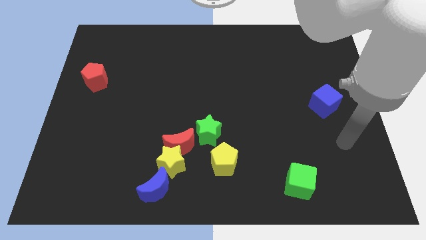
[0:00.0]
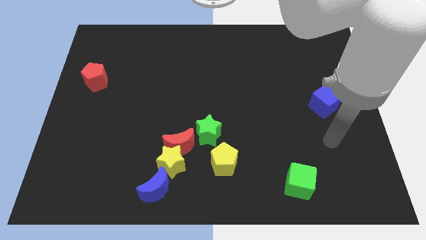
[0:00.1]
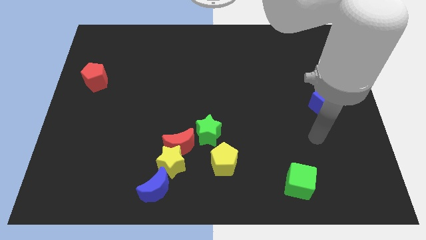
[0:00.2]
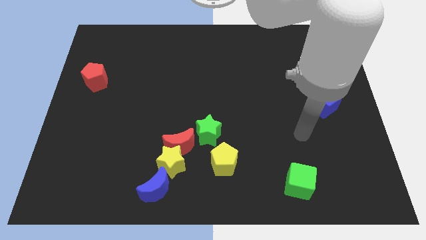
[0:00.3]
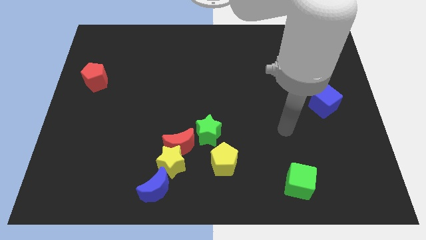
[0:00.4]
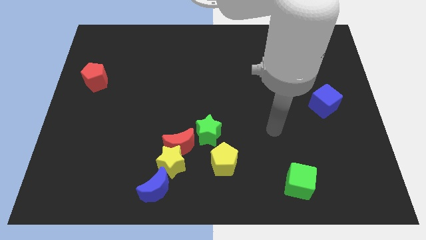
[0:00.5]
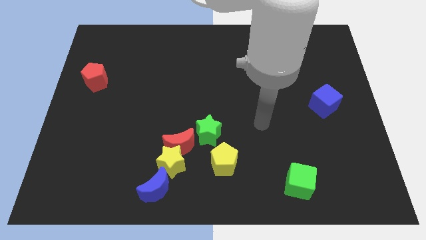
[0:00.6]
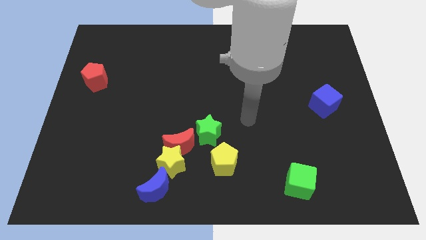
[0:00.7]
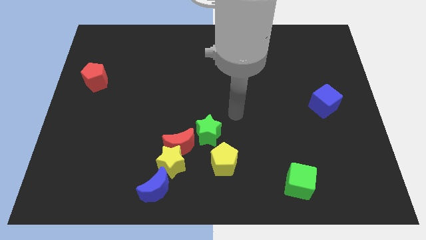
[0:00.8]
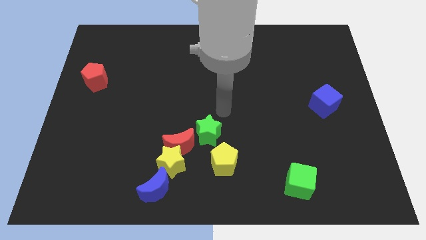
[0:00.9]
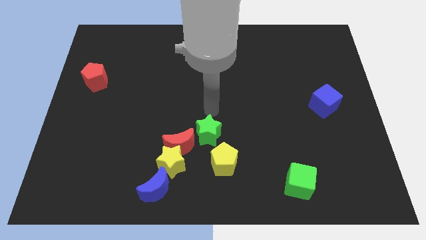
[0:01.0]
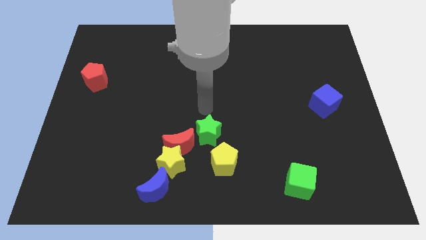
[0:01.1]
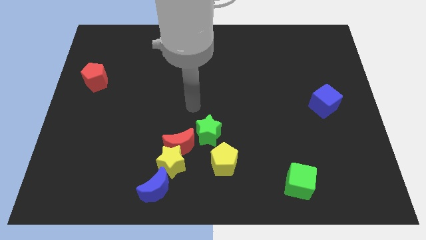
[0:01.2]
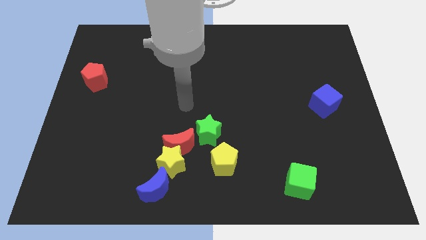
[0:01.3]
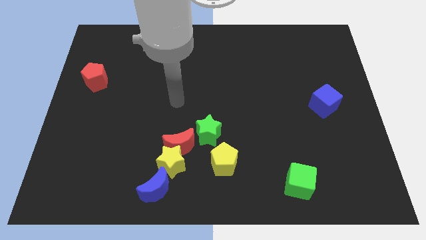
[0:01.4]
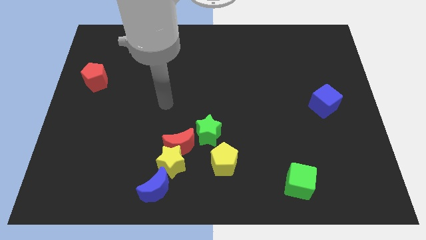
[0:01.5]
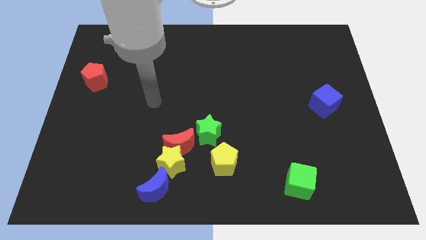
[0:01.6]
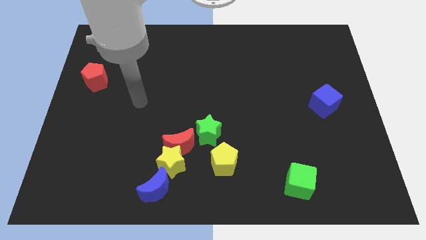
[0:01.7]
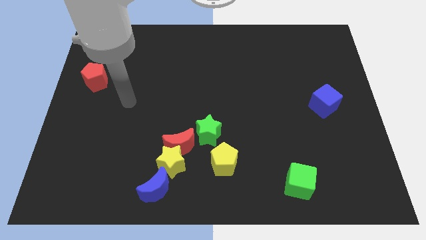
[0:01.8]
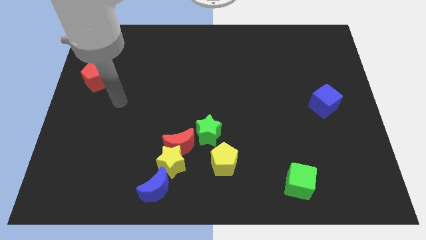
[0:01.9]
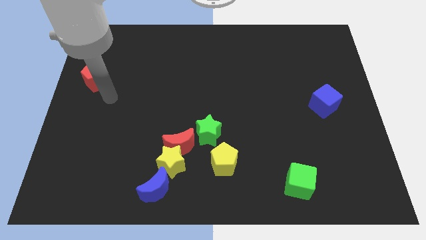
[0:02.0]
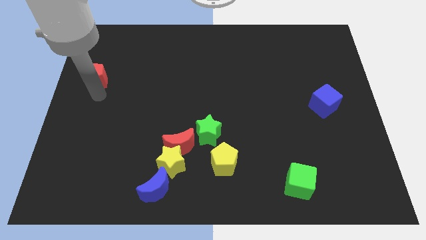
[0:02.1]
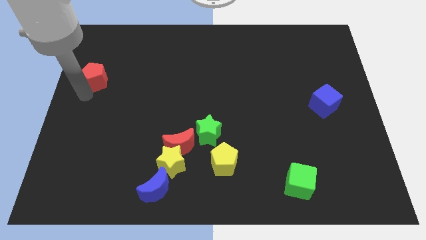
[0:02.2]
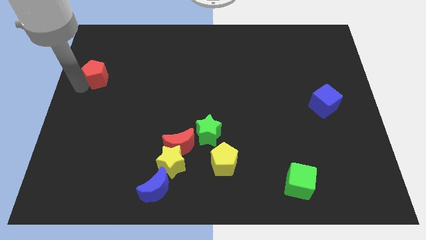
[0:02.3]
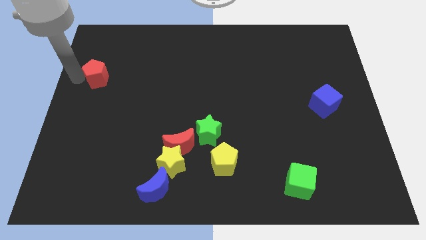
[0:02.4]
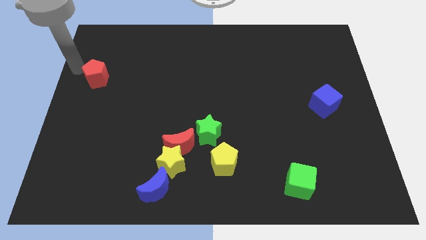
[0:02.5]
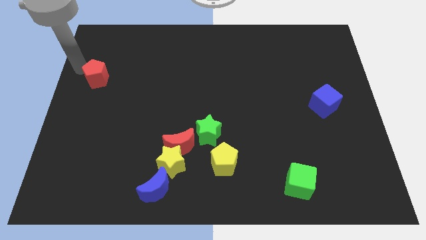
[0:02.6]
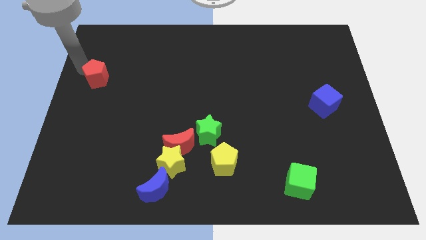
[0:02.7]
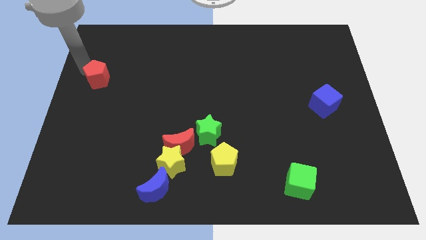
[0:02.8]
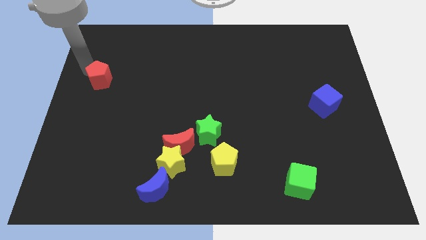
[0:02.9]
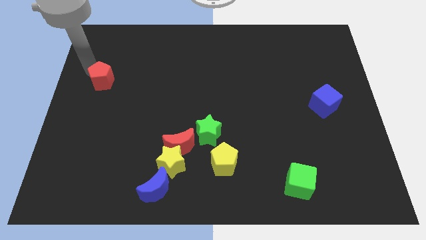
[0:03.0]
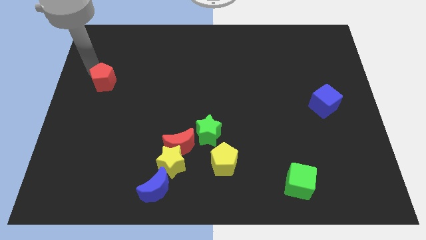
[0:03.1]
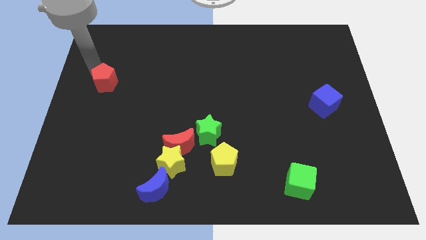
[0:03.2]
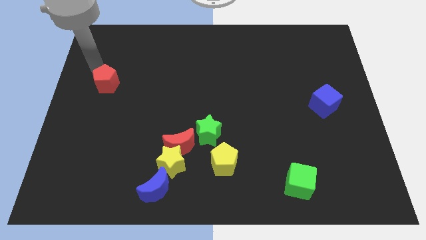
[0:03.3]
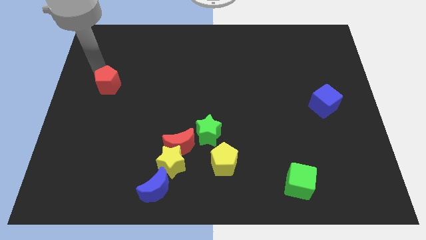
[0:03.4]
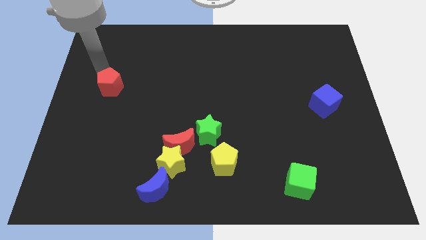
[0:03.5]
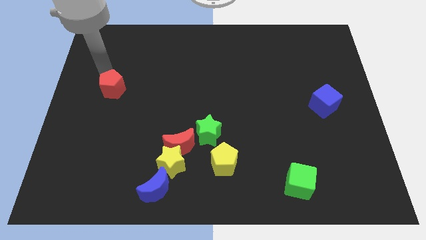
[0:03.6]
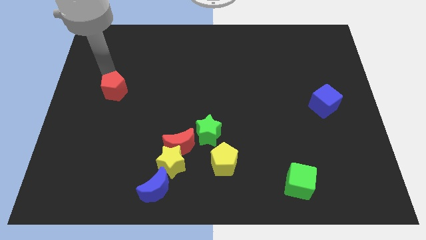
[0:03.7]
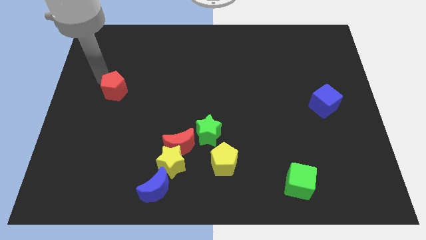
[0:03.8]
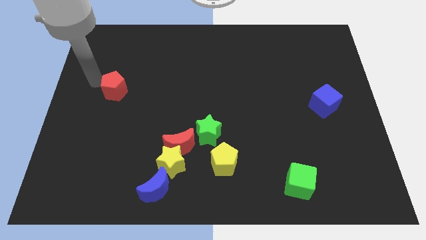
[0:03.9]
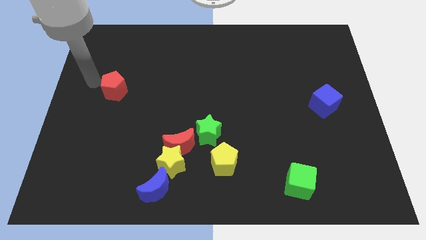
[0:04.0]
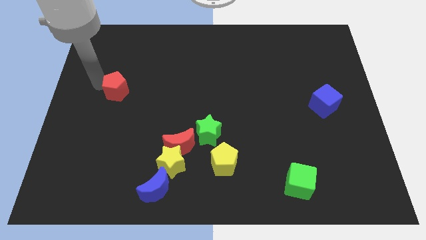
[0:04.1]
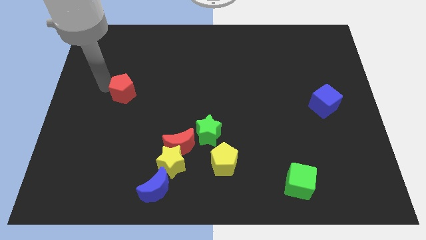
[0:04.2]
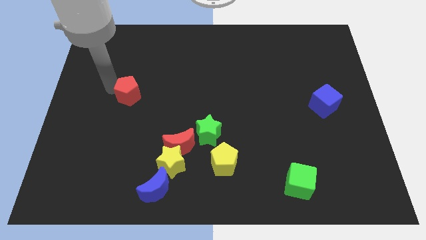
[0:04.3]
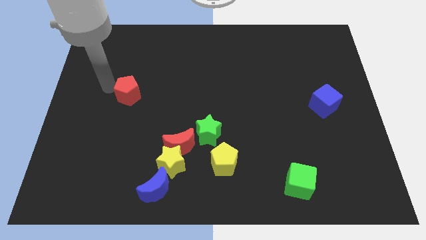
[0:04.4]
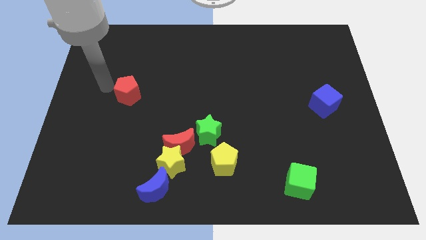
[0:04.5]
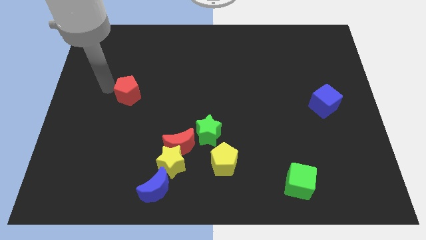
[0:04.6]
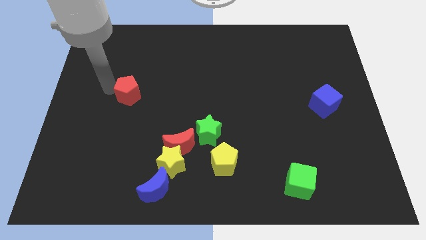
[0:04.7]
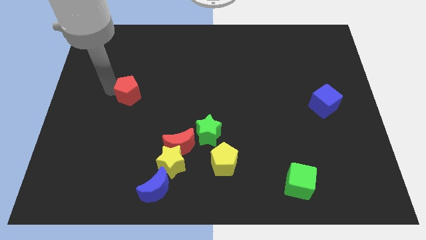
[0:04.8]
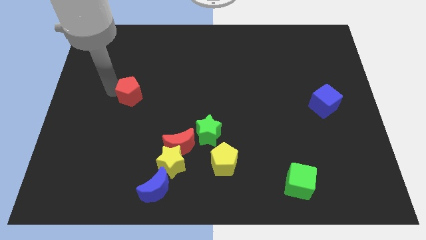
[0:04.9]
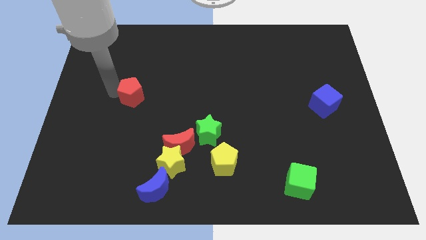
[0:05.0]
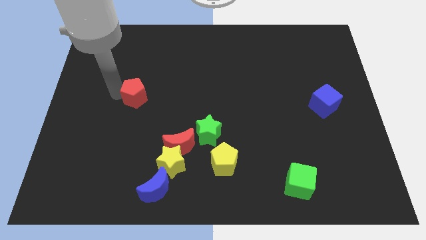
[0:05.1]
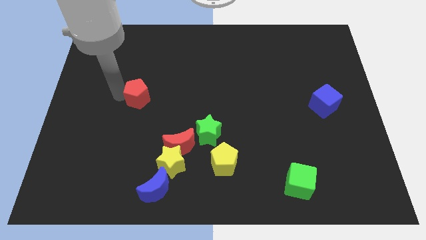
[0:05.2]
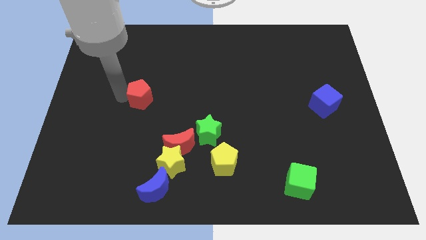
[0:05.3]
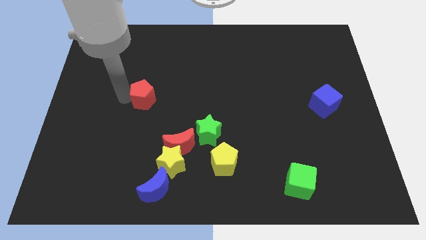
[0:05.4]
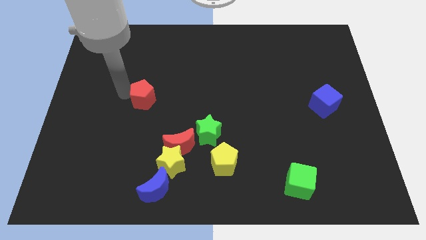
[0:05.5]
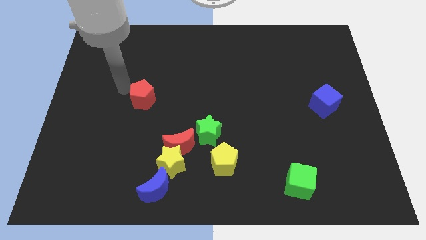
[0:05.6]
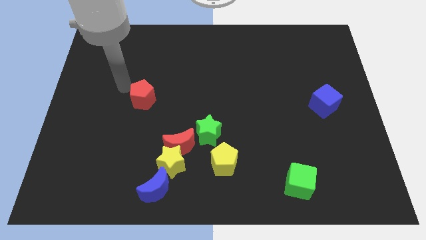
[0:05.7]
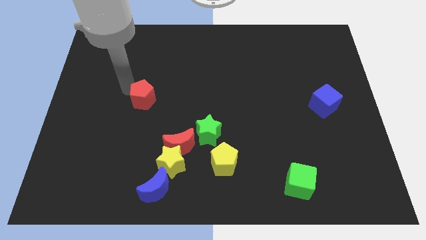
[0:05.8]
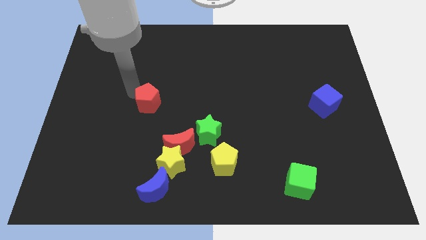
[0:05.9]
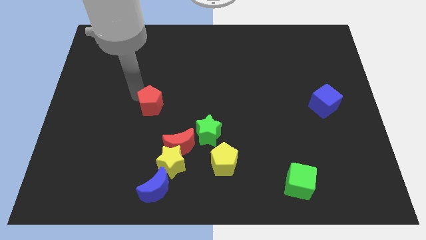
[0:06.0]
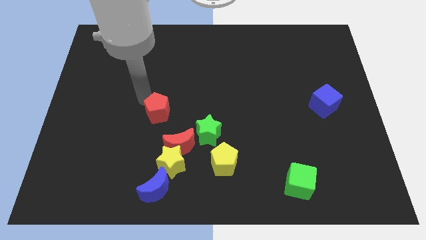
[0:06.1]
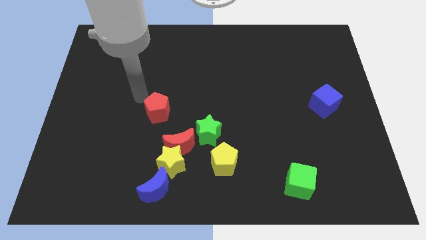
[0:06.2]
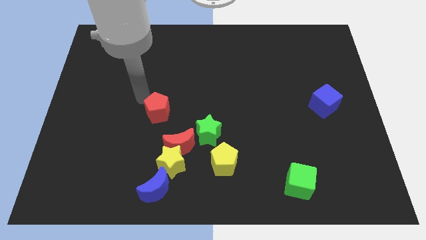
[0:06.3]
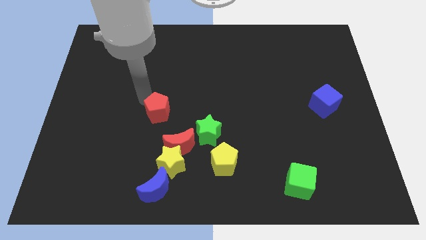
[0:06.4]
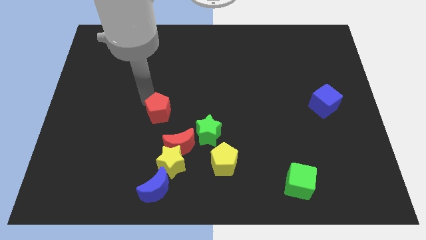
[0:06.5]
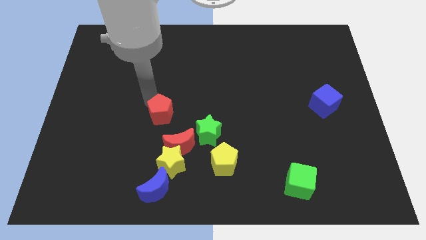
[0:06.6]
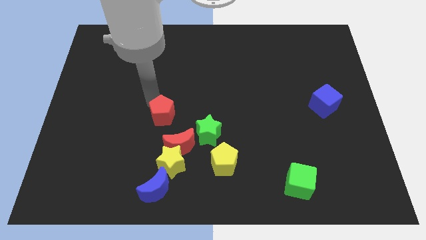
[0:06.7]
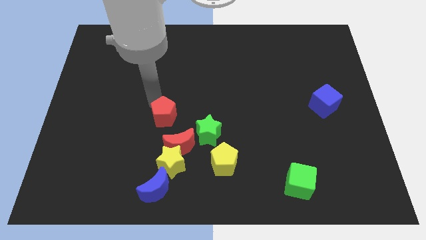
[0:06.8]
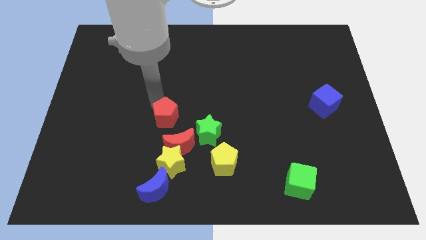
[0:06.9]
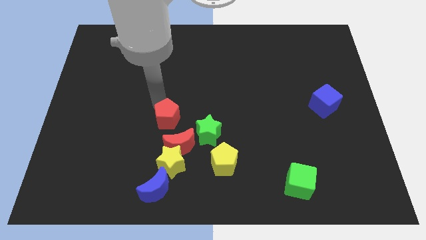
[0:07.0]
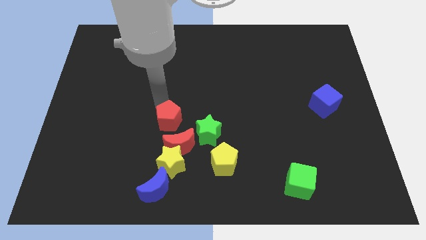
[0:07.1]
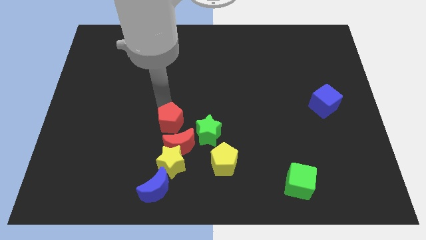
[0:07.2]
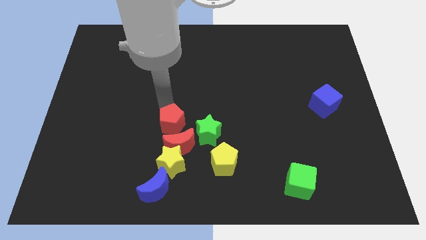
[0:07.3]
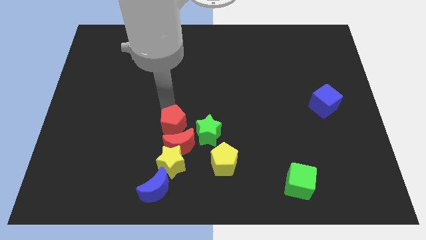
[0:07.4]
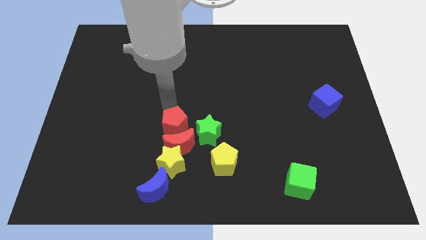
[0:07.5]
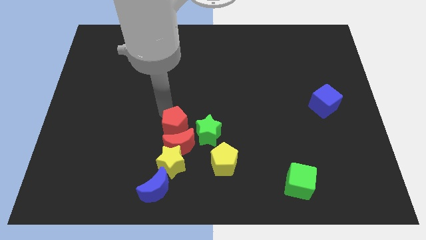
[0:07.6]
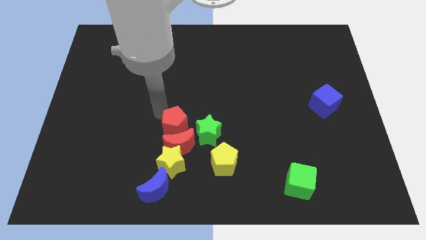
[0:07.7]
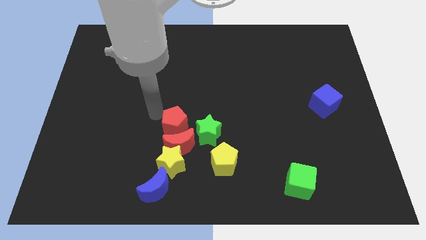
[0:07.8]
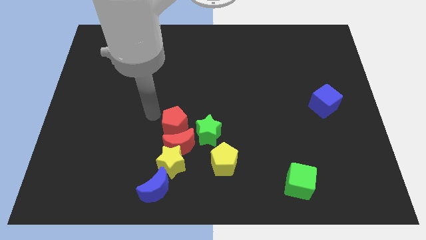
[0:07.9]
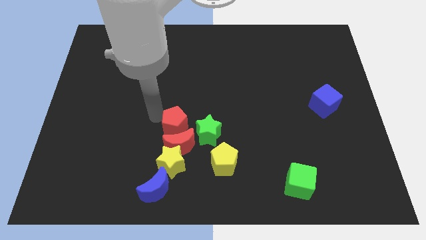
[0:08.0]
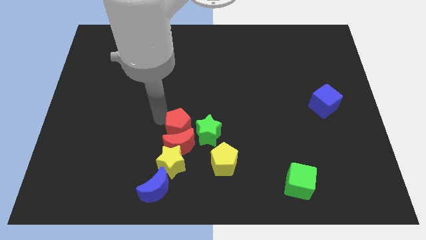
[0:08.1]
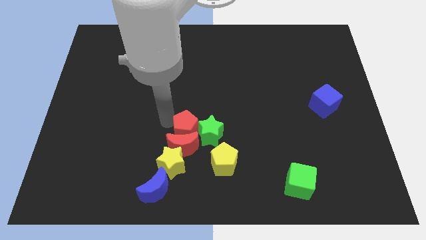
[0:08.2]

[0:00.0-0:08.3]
slide the red pentagon diagonally up and to the left of the yellow pentagon
